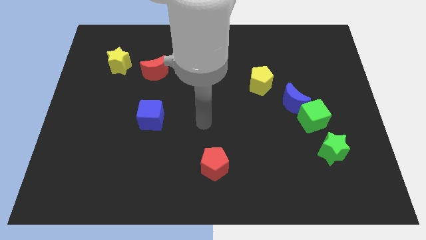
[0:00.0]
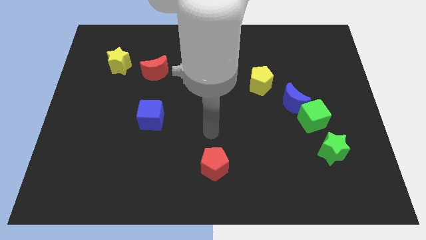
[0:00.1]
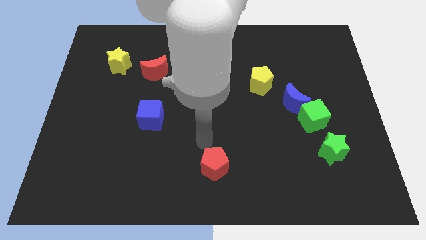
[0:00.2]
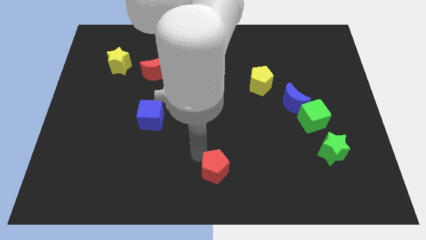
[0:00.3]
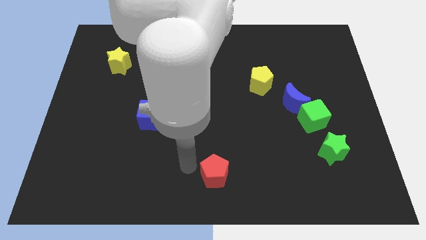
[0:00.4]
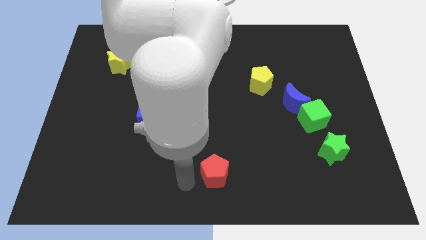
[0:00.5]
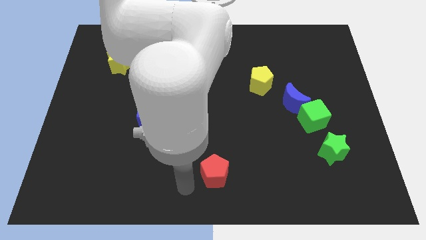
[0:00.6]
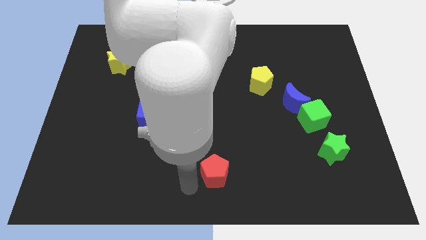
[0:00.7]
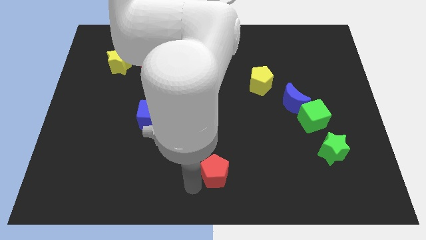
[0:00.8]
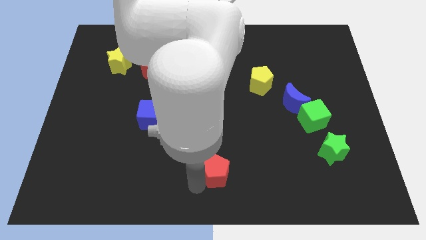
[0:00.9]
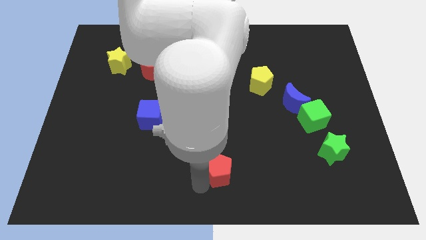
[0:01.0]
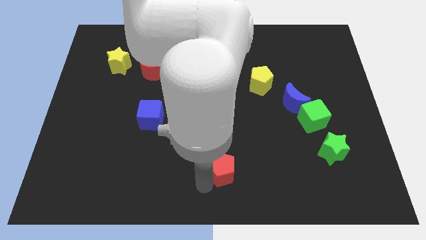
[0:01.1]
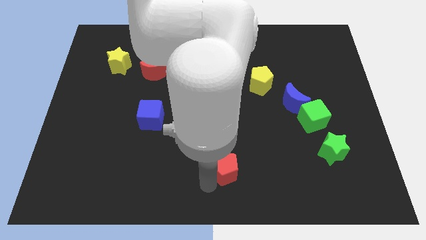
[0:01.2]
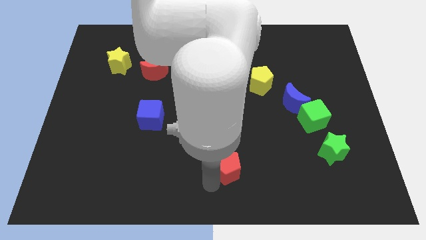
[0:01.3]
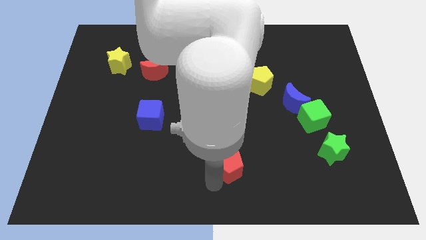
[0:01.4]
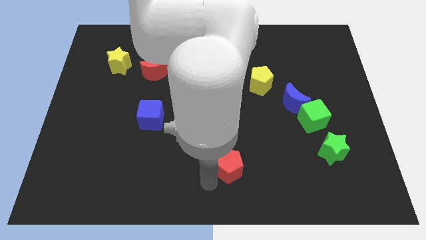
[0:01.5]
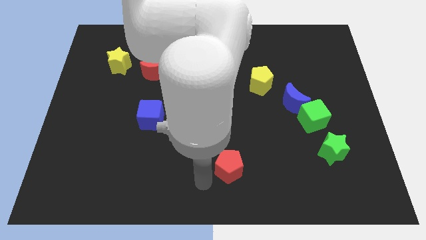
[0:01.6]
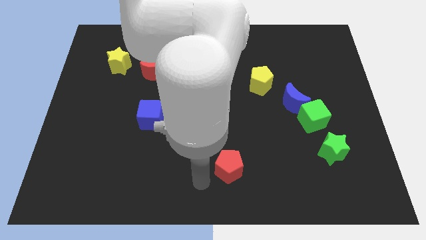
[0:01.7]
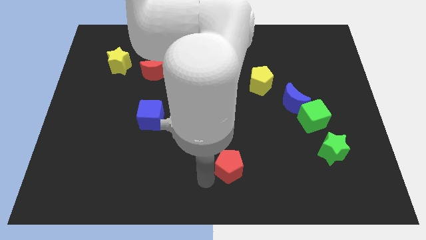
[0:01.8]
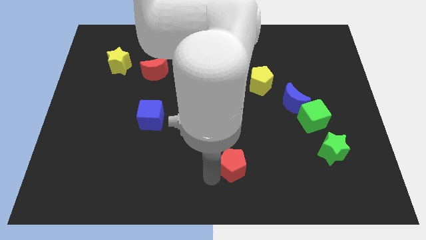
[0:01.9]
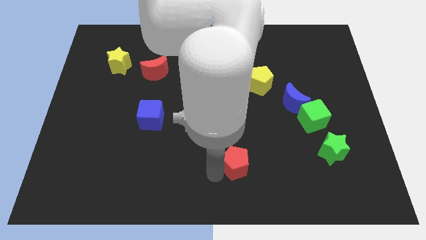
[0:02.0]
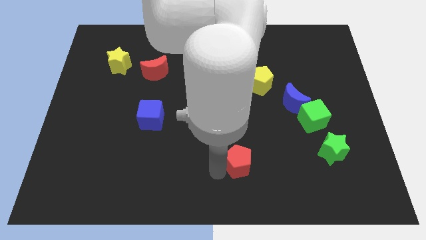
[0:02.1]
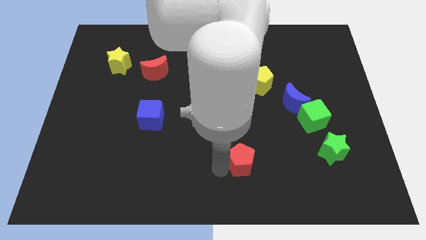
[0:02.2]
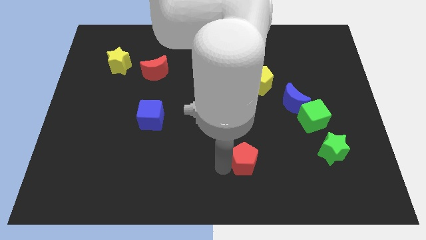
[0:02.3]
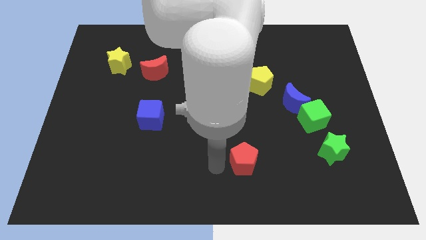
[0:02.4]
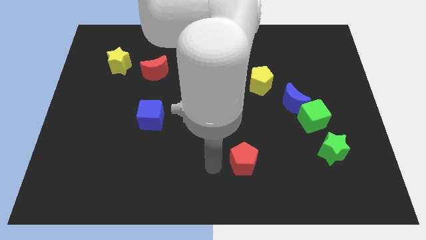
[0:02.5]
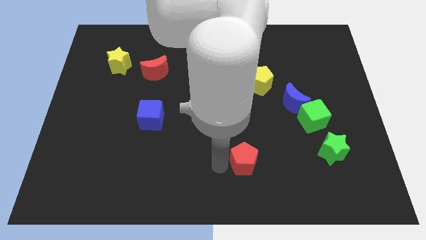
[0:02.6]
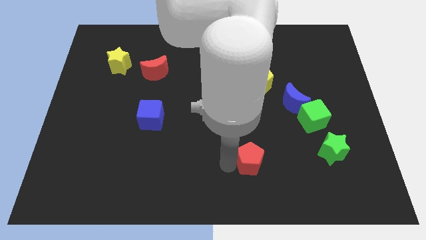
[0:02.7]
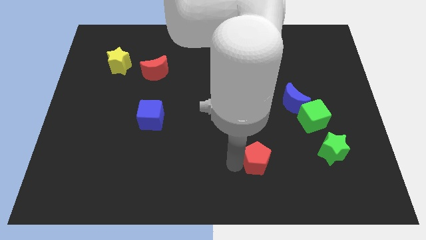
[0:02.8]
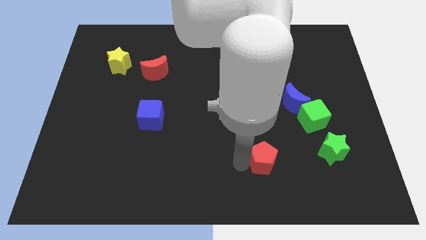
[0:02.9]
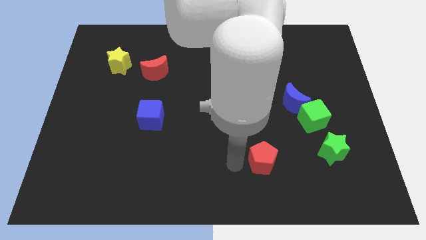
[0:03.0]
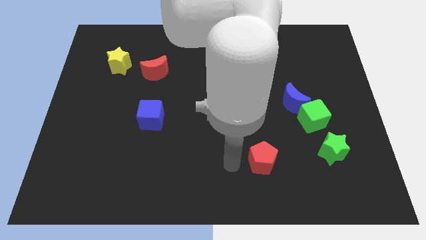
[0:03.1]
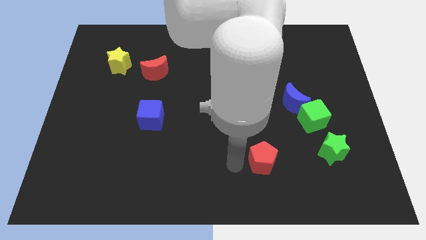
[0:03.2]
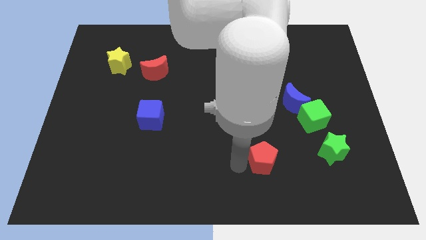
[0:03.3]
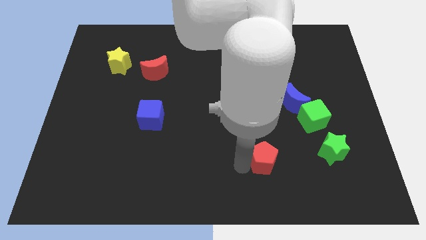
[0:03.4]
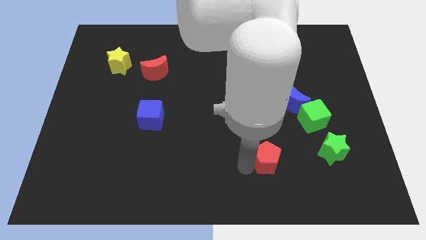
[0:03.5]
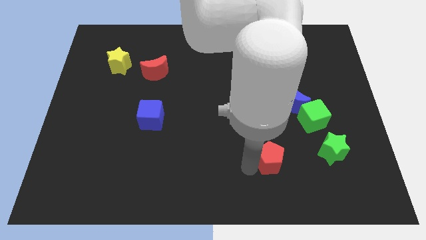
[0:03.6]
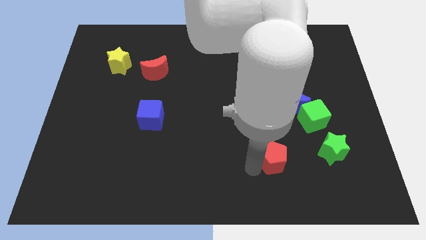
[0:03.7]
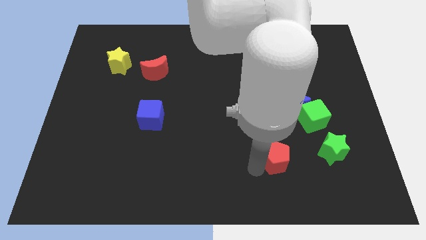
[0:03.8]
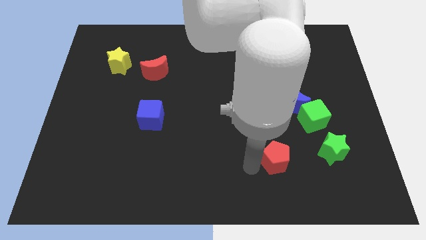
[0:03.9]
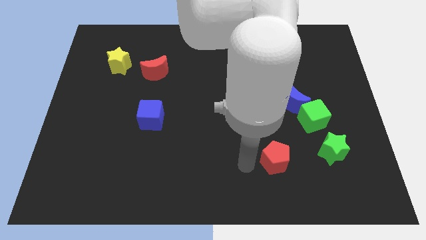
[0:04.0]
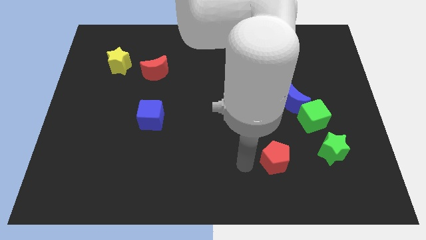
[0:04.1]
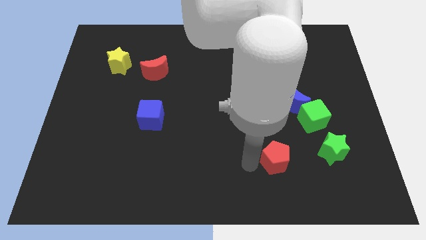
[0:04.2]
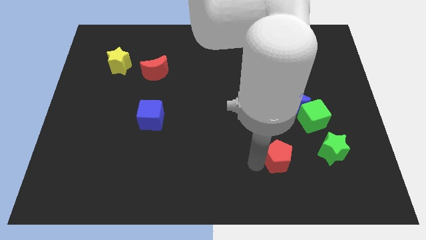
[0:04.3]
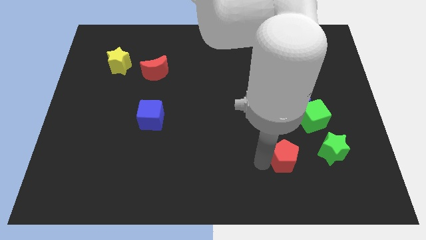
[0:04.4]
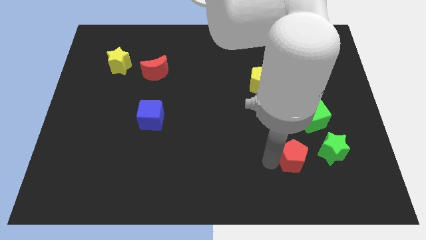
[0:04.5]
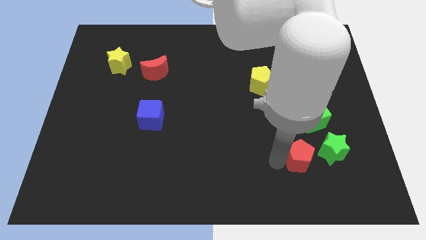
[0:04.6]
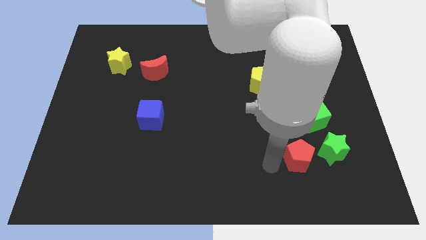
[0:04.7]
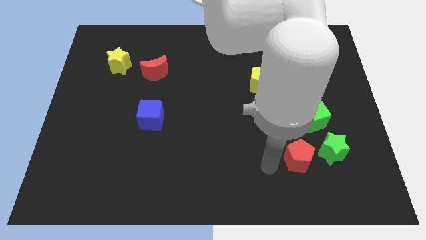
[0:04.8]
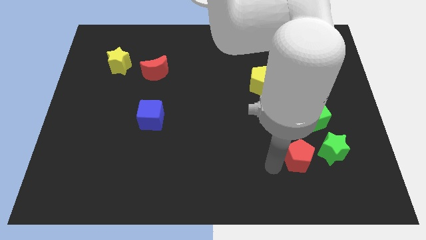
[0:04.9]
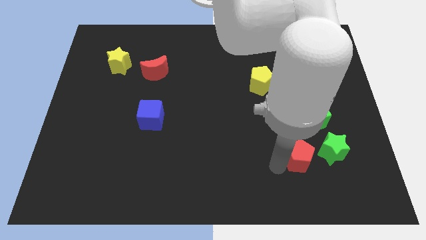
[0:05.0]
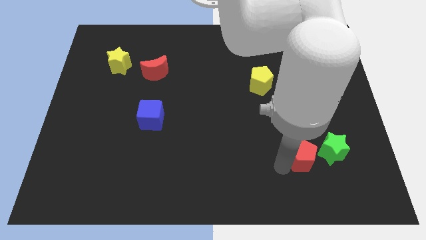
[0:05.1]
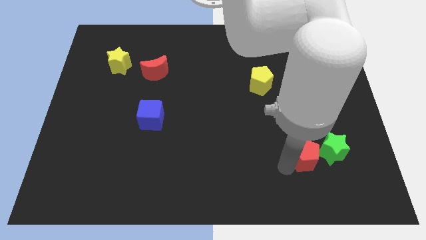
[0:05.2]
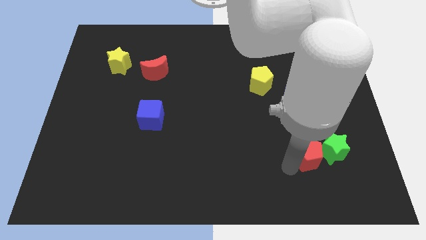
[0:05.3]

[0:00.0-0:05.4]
put the red pentagon towards the green star

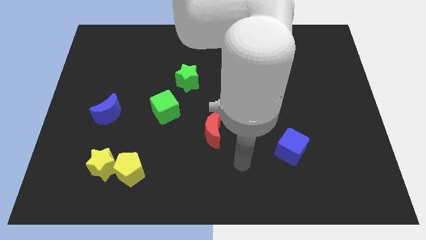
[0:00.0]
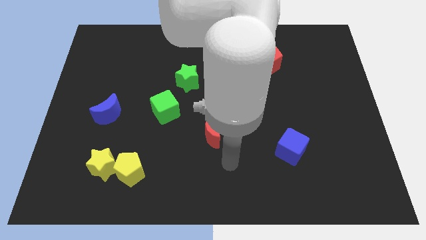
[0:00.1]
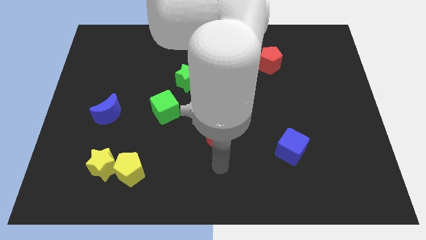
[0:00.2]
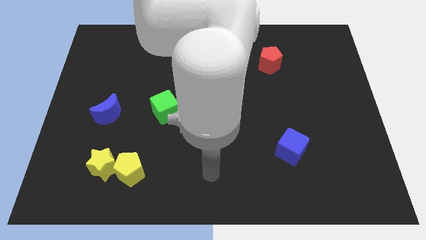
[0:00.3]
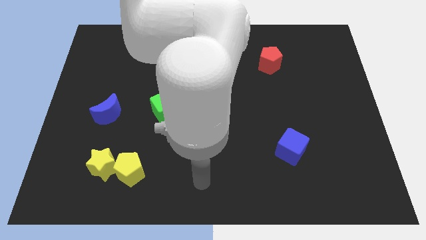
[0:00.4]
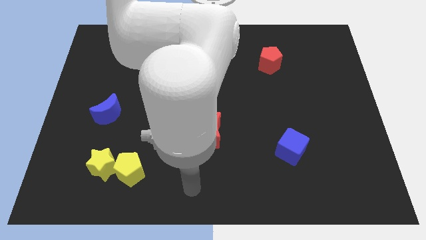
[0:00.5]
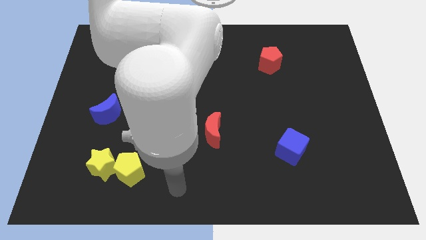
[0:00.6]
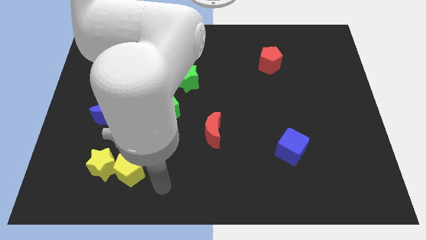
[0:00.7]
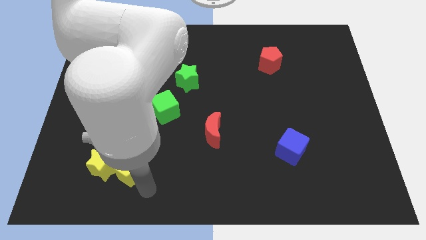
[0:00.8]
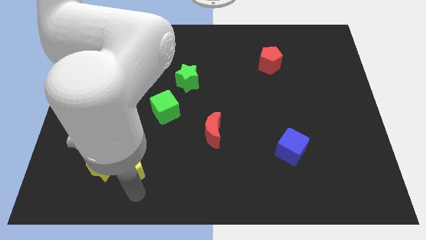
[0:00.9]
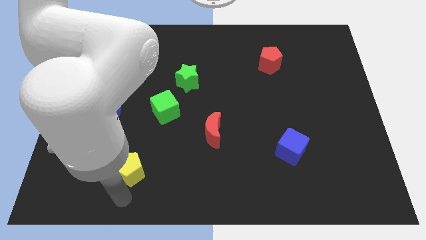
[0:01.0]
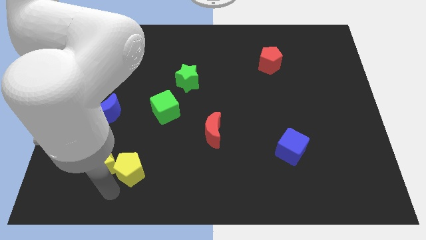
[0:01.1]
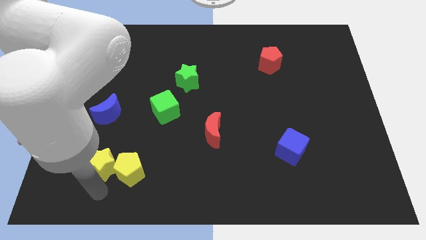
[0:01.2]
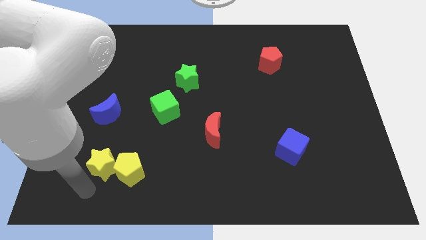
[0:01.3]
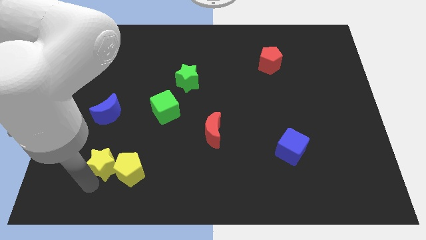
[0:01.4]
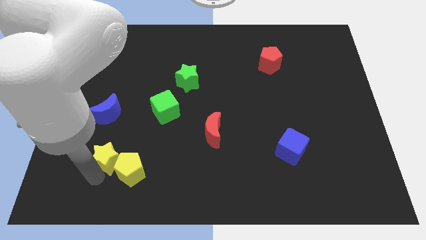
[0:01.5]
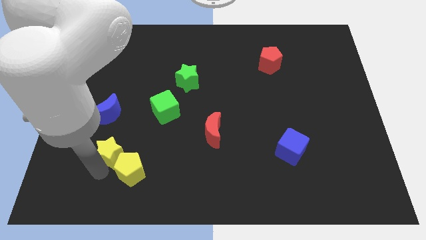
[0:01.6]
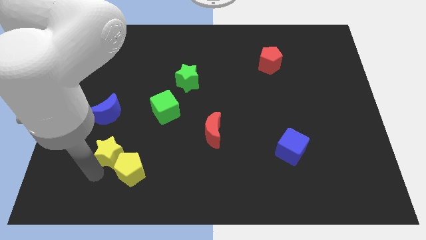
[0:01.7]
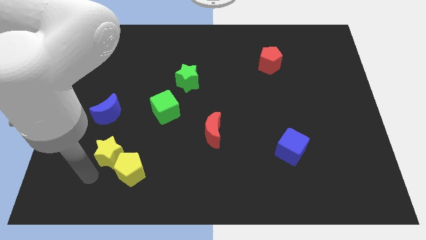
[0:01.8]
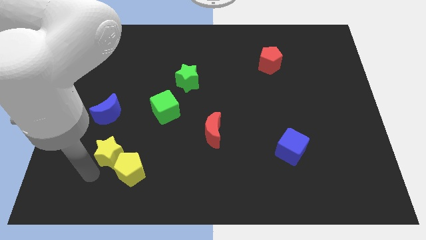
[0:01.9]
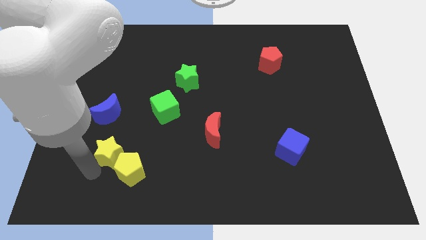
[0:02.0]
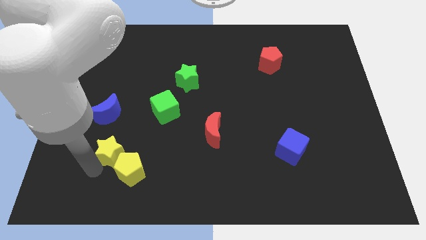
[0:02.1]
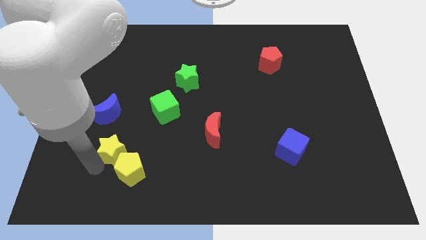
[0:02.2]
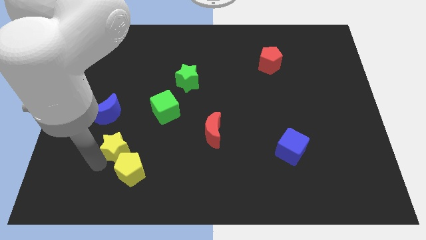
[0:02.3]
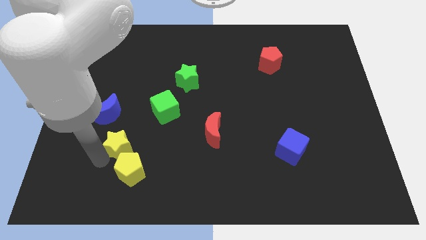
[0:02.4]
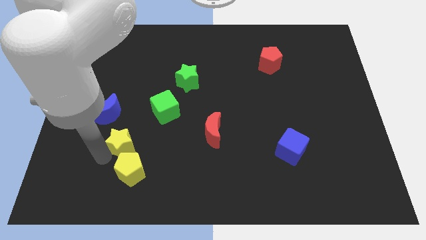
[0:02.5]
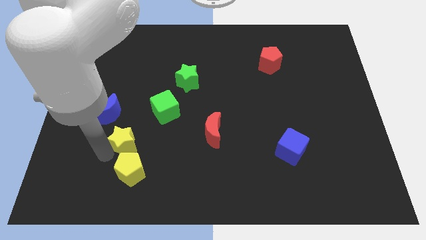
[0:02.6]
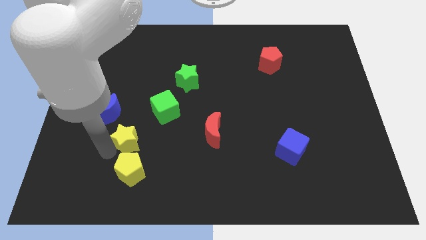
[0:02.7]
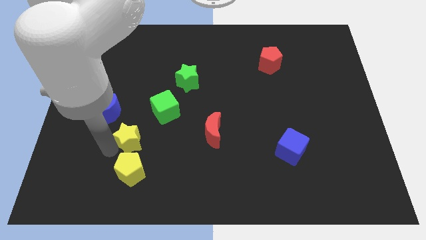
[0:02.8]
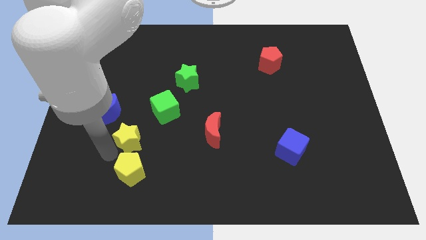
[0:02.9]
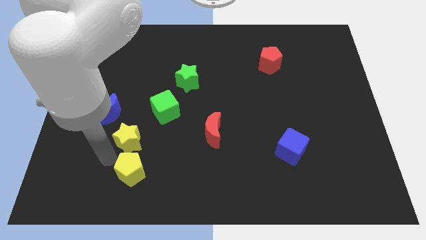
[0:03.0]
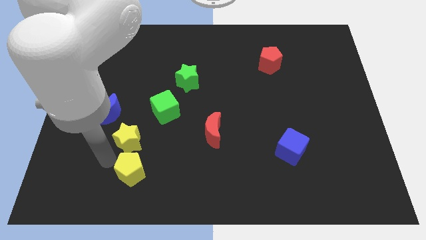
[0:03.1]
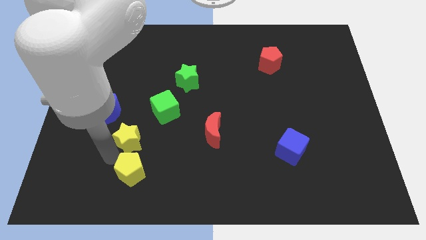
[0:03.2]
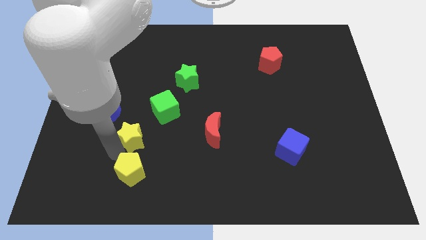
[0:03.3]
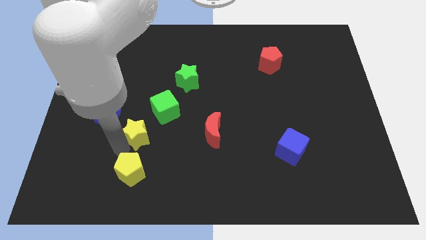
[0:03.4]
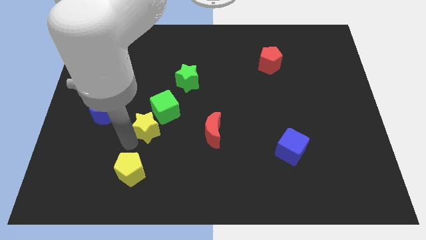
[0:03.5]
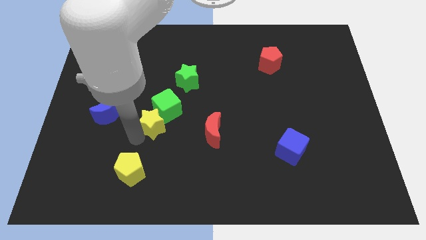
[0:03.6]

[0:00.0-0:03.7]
move the yellow star close to the green cube
